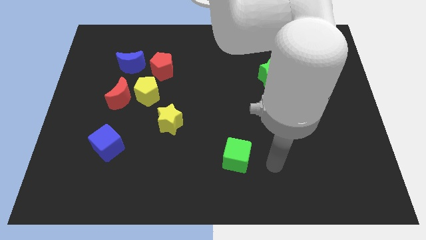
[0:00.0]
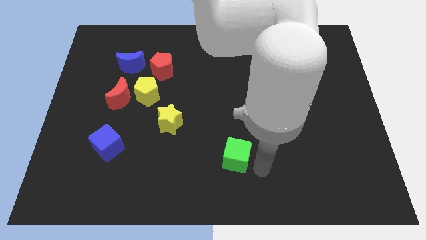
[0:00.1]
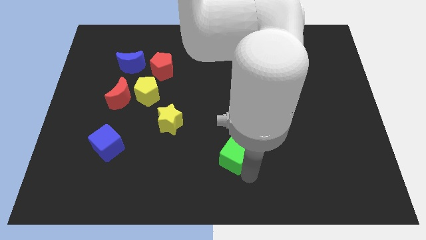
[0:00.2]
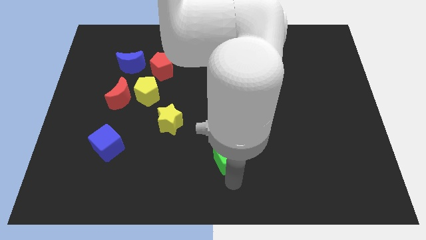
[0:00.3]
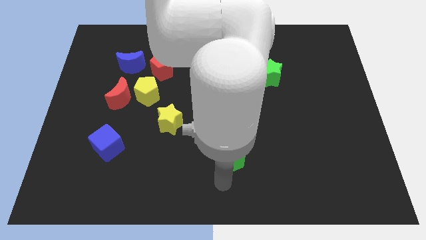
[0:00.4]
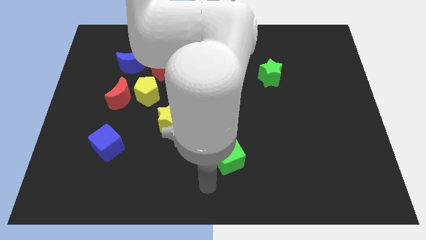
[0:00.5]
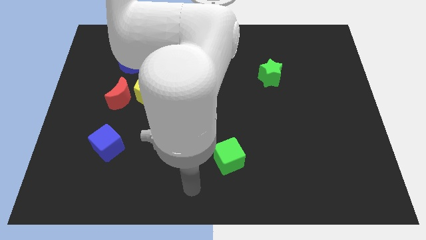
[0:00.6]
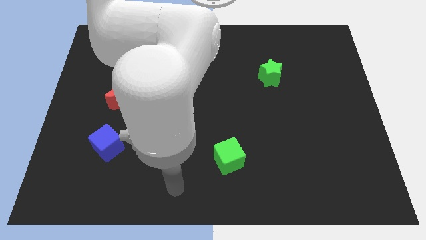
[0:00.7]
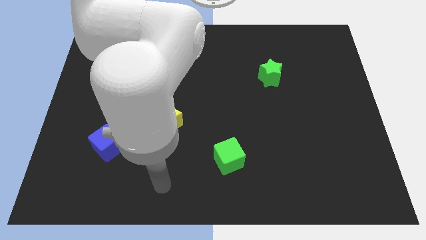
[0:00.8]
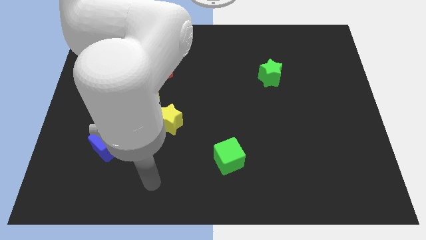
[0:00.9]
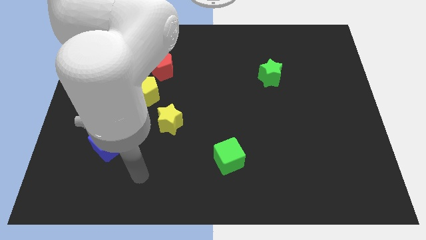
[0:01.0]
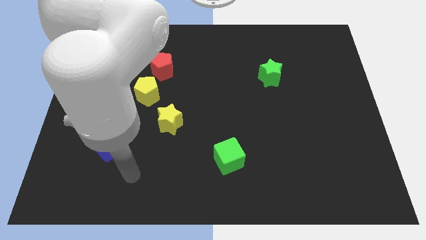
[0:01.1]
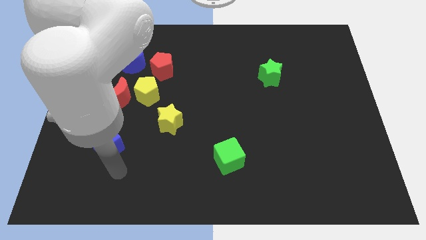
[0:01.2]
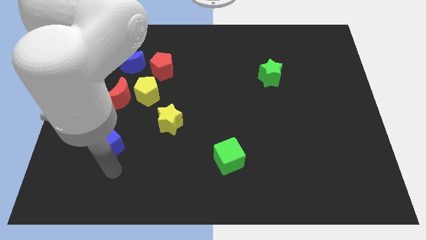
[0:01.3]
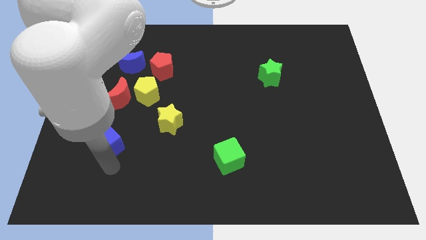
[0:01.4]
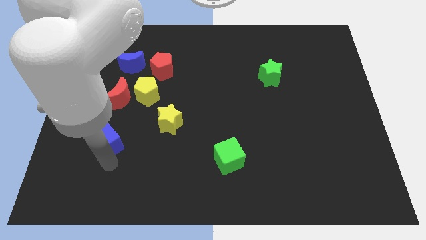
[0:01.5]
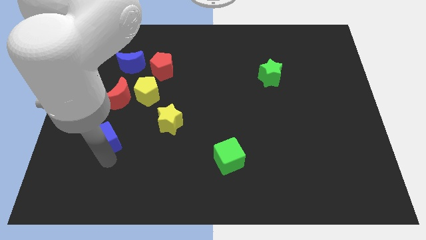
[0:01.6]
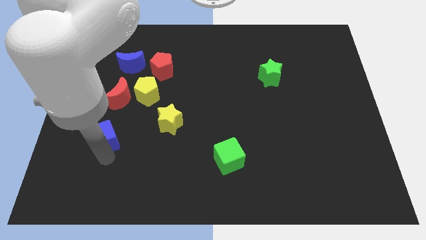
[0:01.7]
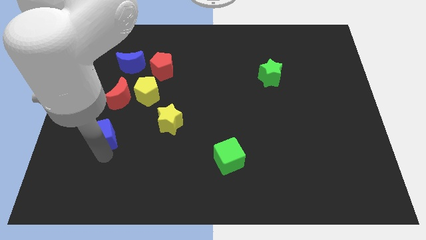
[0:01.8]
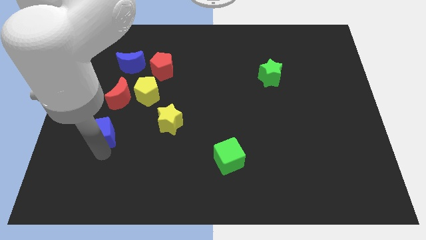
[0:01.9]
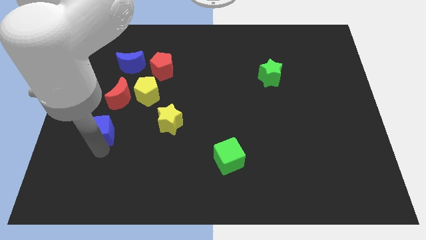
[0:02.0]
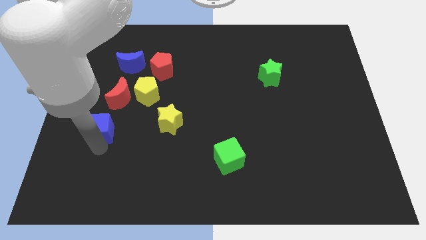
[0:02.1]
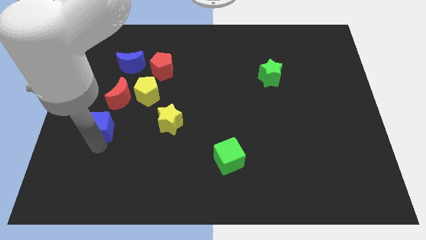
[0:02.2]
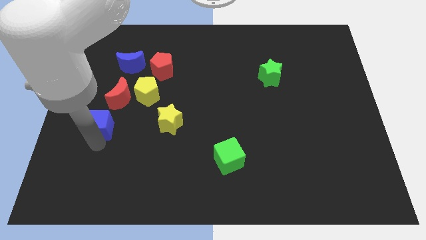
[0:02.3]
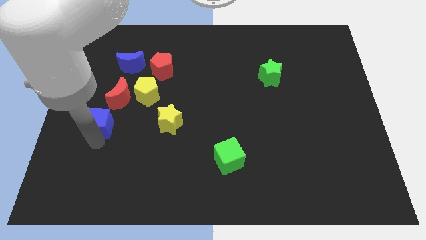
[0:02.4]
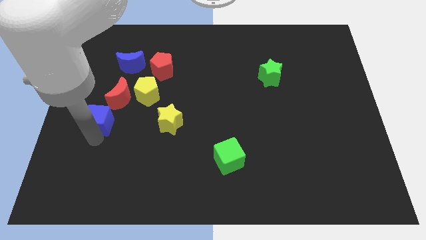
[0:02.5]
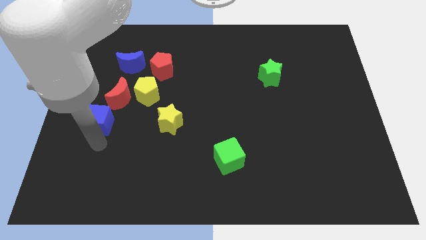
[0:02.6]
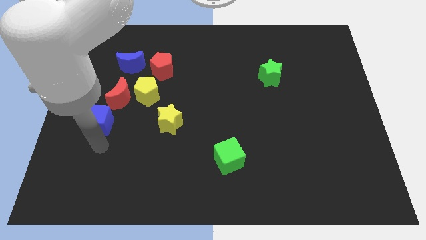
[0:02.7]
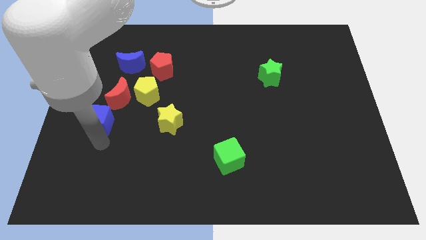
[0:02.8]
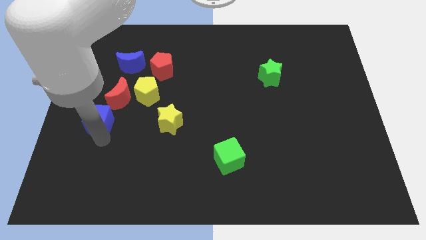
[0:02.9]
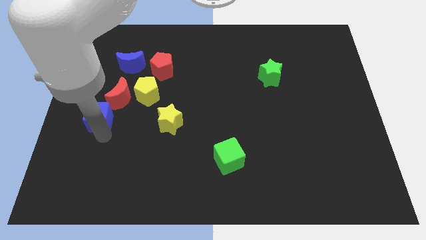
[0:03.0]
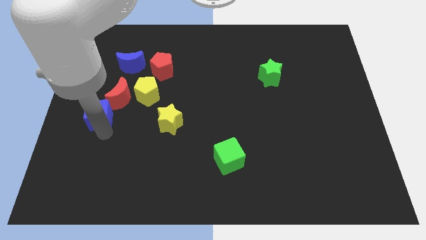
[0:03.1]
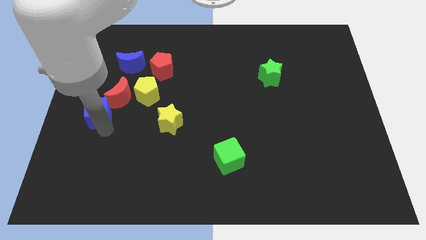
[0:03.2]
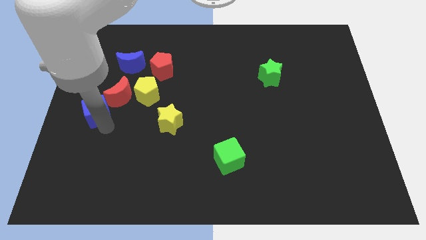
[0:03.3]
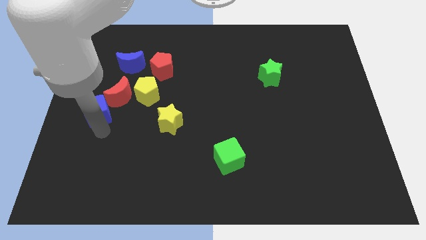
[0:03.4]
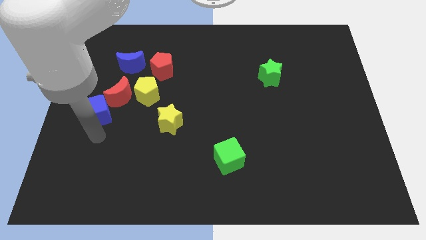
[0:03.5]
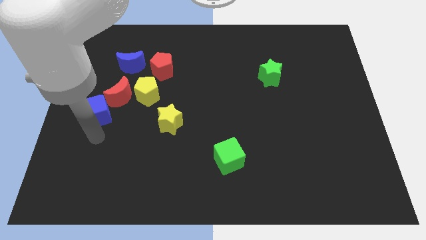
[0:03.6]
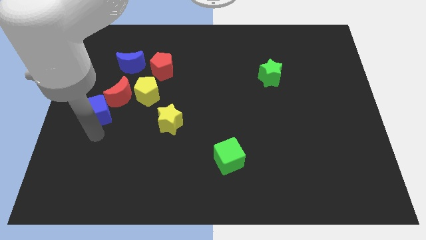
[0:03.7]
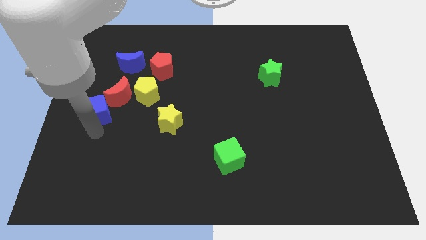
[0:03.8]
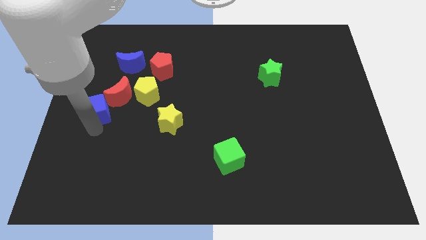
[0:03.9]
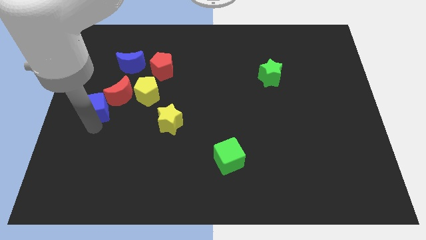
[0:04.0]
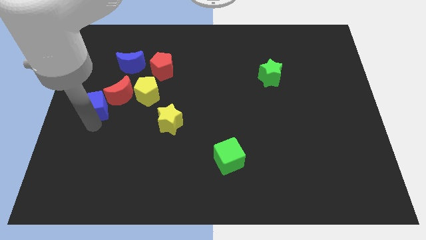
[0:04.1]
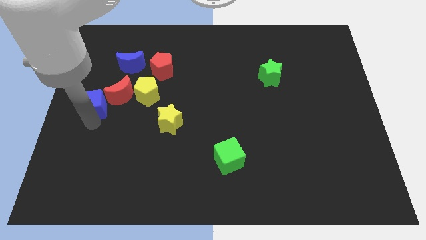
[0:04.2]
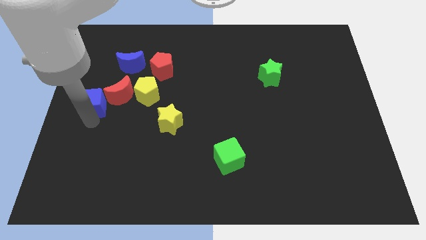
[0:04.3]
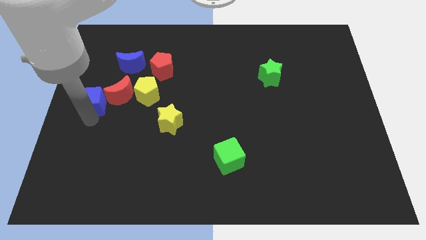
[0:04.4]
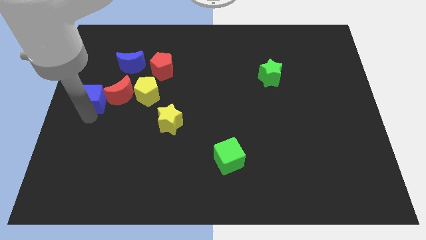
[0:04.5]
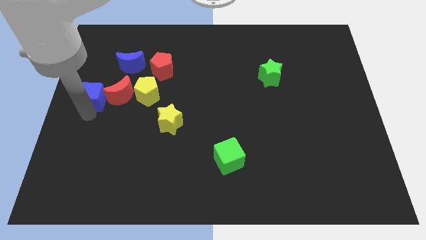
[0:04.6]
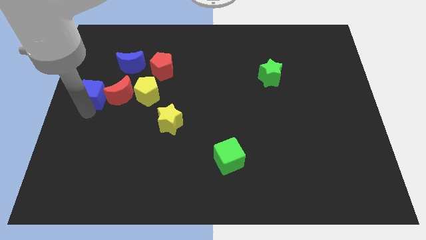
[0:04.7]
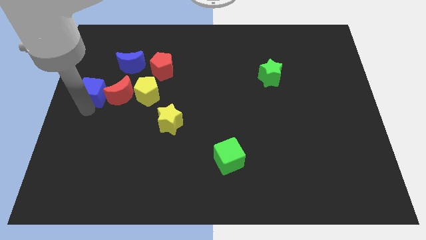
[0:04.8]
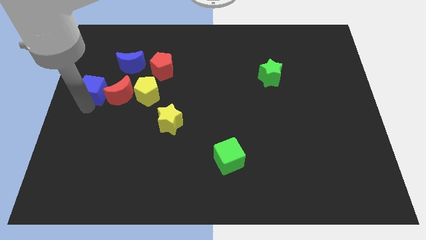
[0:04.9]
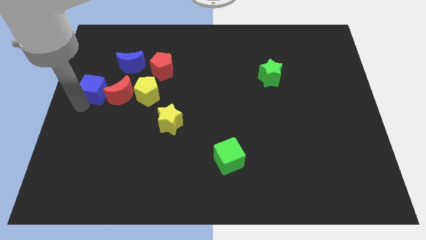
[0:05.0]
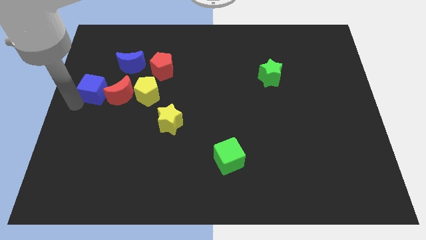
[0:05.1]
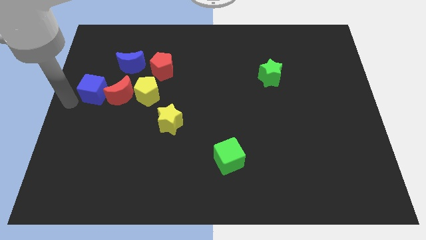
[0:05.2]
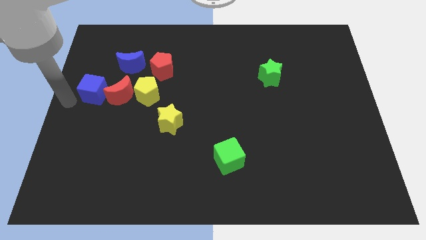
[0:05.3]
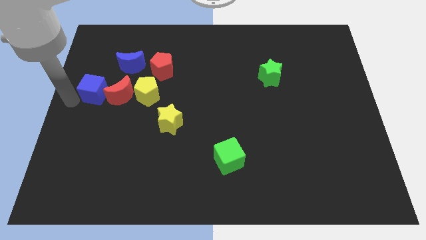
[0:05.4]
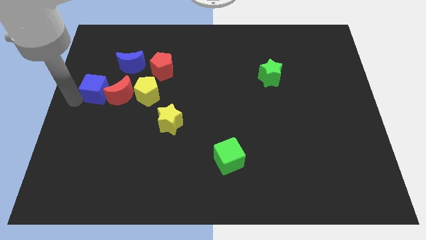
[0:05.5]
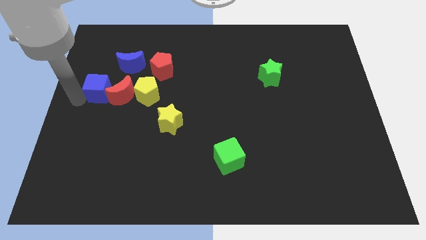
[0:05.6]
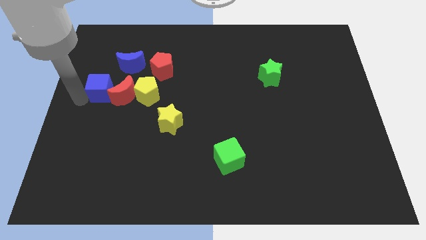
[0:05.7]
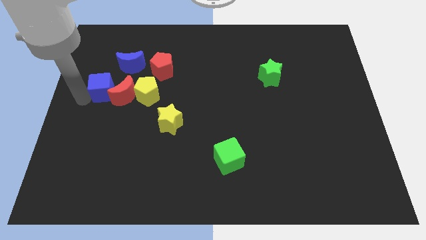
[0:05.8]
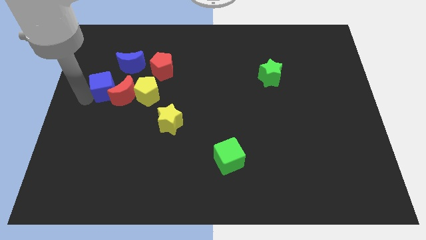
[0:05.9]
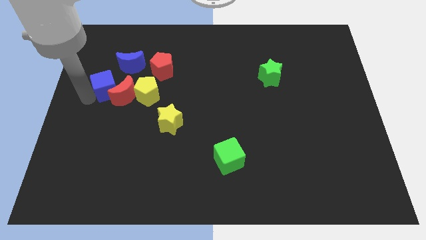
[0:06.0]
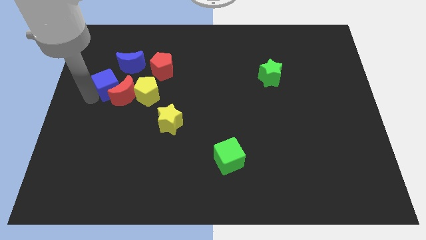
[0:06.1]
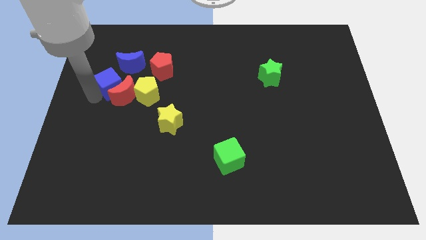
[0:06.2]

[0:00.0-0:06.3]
push the blue cube diagonally up and to the left of the yellow pentagon

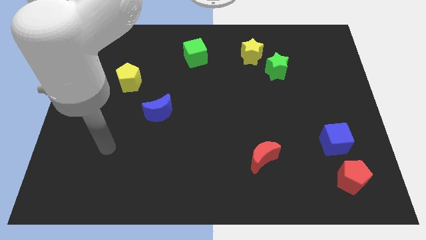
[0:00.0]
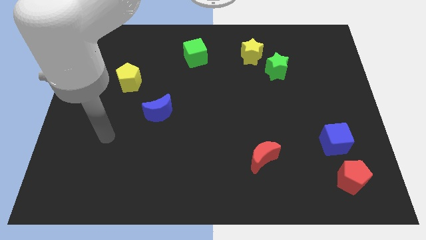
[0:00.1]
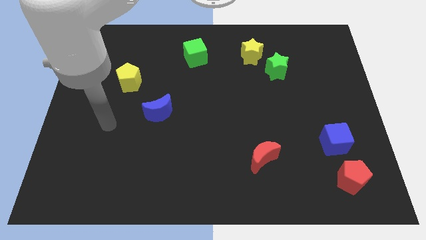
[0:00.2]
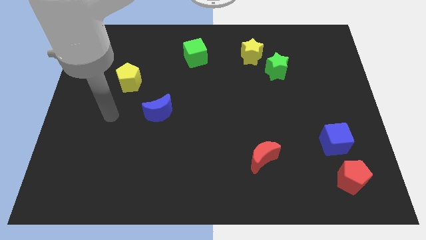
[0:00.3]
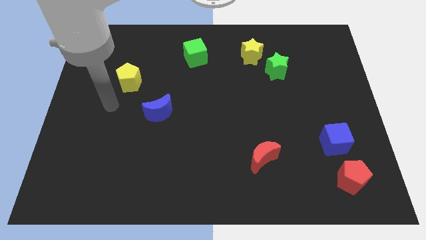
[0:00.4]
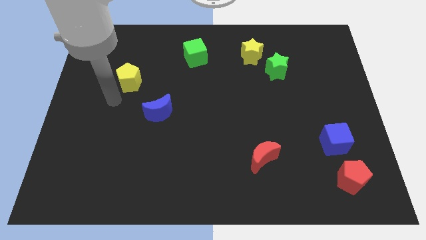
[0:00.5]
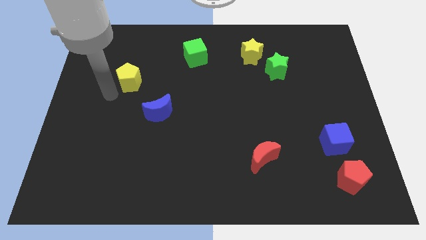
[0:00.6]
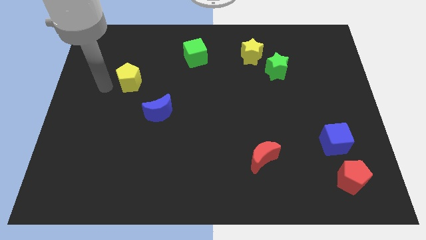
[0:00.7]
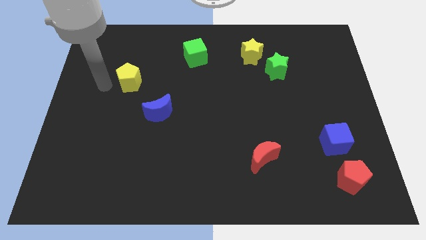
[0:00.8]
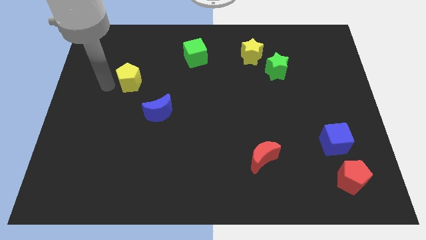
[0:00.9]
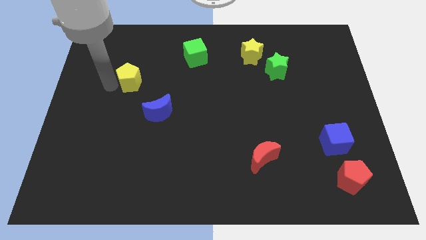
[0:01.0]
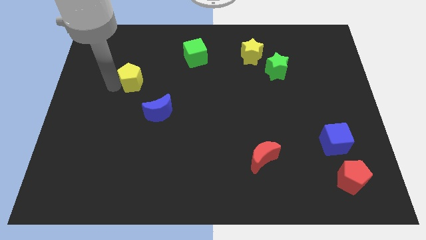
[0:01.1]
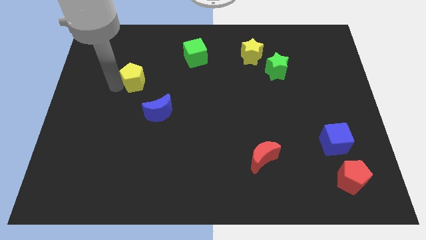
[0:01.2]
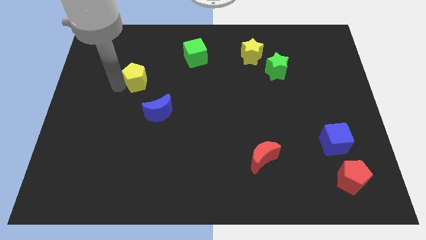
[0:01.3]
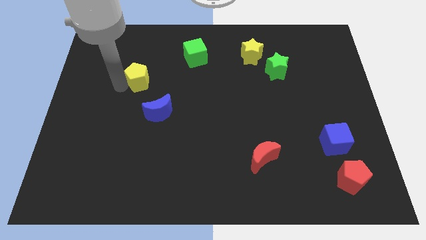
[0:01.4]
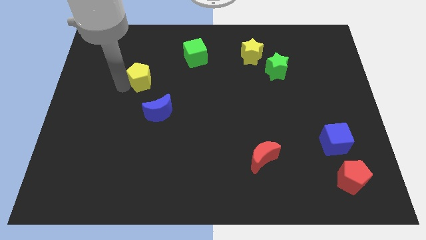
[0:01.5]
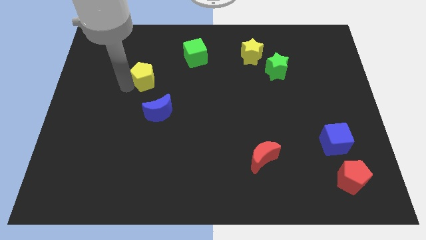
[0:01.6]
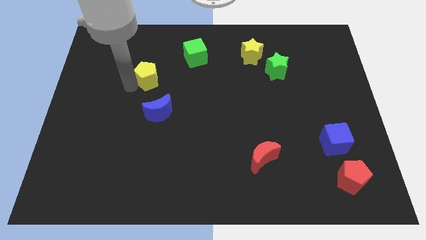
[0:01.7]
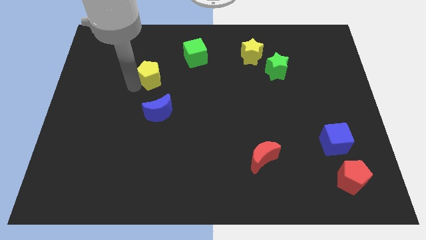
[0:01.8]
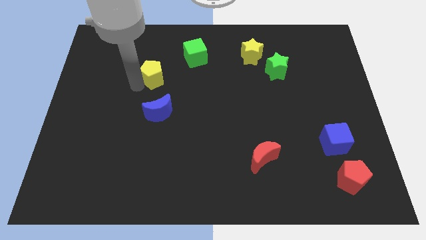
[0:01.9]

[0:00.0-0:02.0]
put the yellow pentagon to the bottom left side of the green cube
